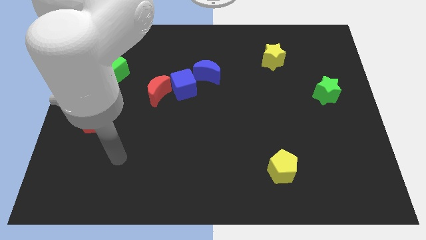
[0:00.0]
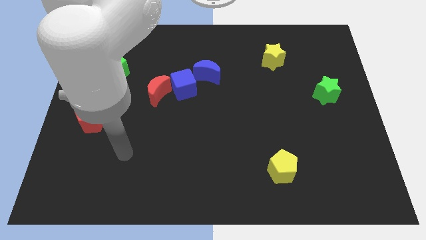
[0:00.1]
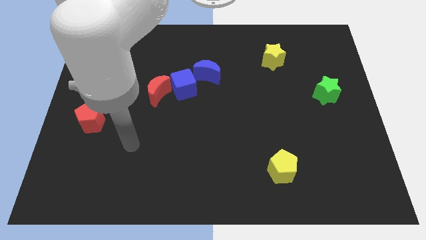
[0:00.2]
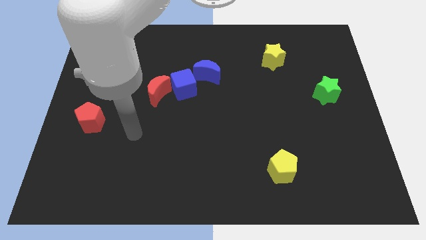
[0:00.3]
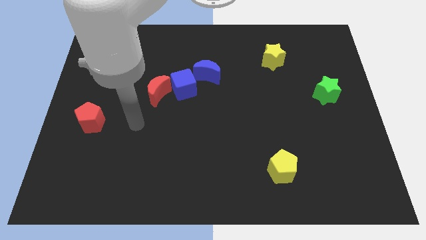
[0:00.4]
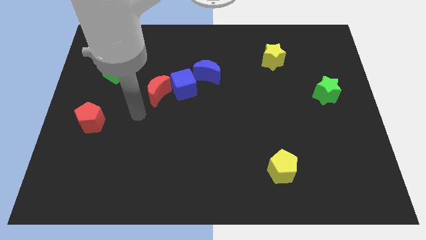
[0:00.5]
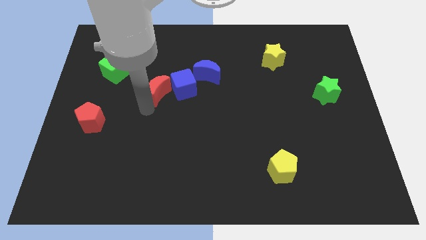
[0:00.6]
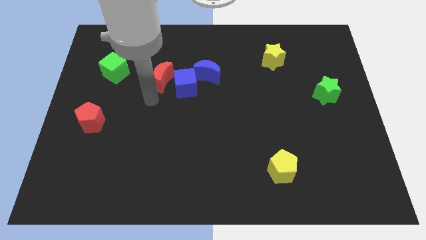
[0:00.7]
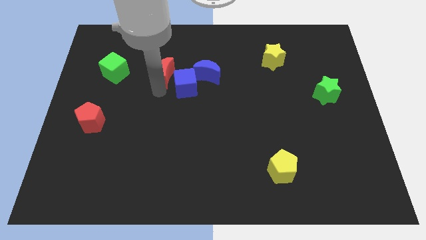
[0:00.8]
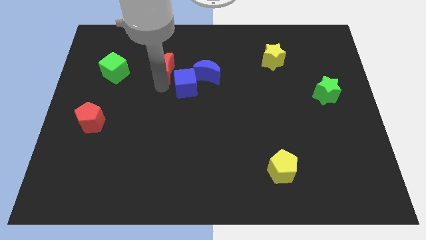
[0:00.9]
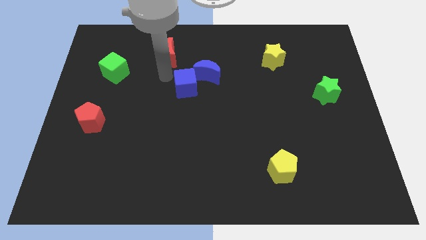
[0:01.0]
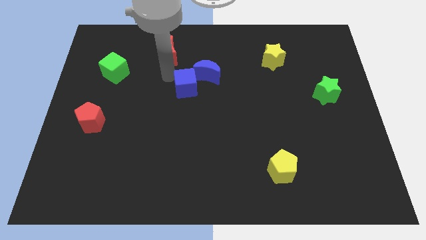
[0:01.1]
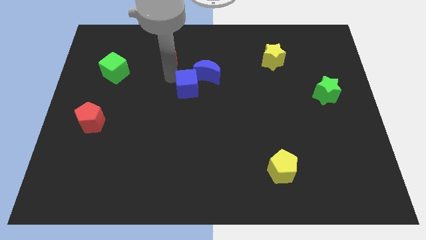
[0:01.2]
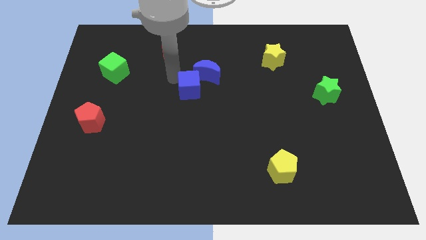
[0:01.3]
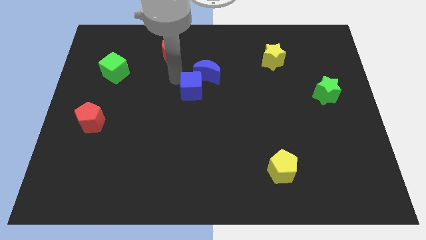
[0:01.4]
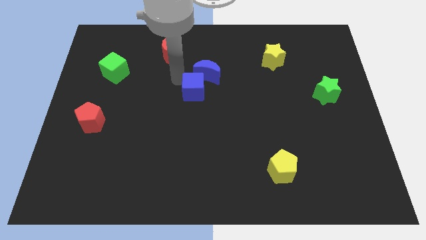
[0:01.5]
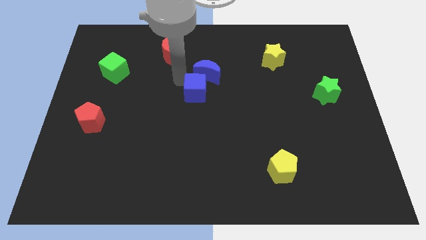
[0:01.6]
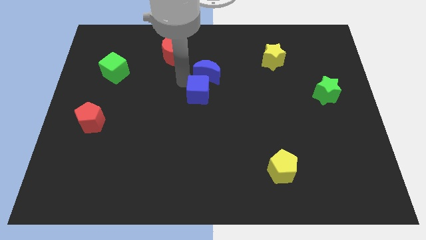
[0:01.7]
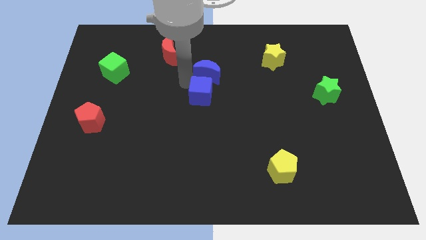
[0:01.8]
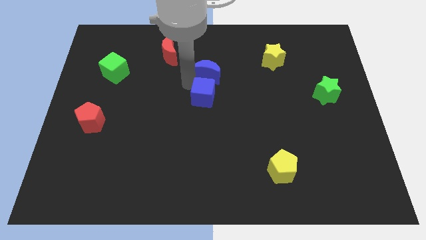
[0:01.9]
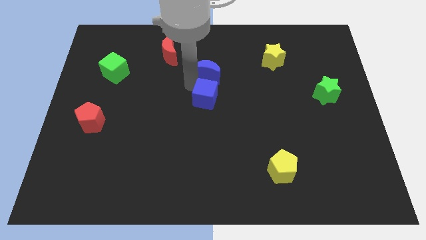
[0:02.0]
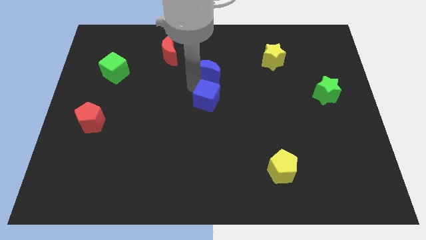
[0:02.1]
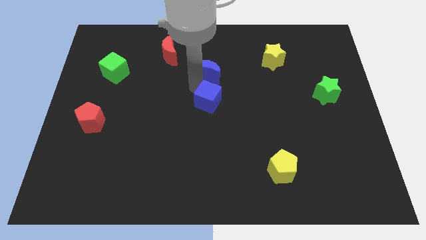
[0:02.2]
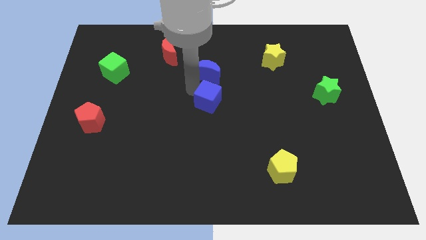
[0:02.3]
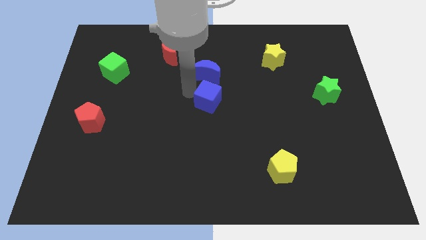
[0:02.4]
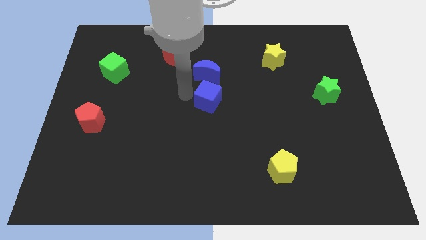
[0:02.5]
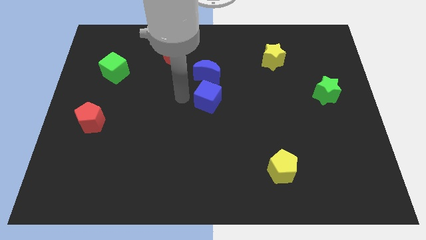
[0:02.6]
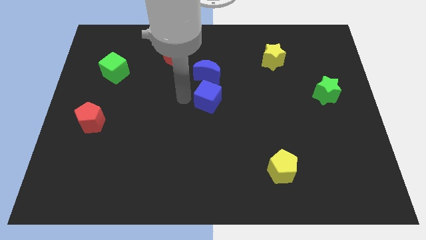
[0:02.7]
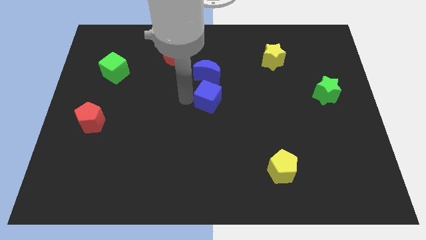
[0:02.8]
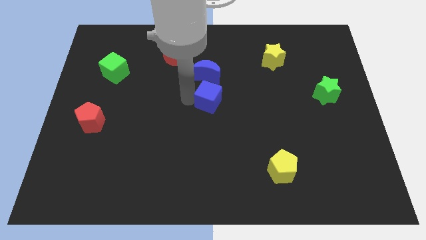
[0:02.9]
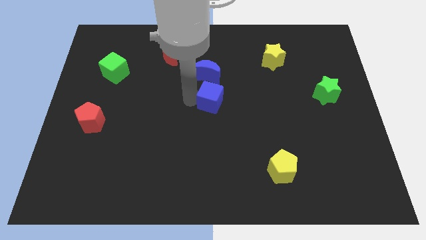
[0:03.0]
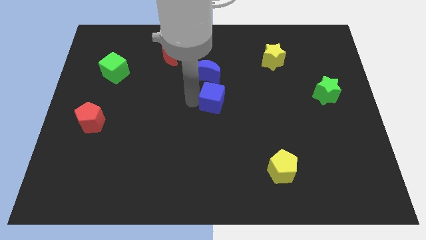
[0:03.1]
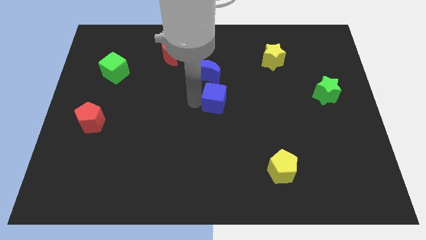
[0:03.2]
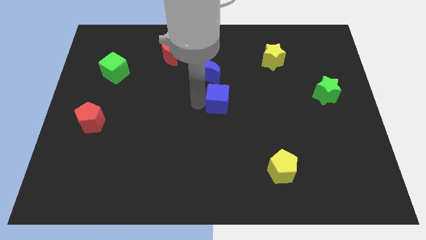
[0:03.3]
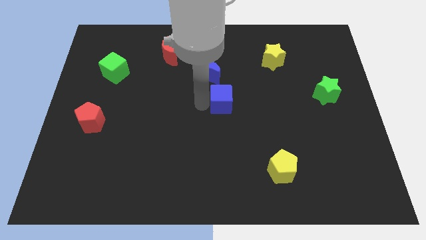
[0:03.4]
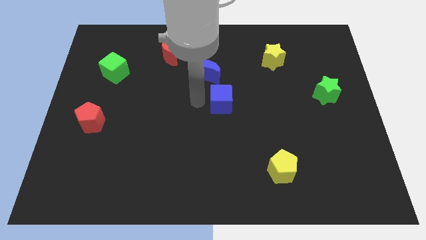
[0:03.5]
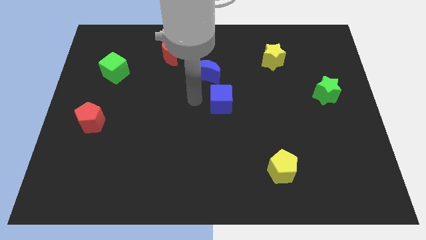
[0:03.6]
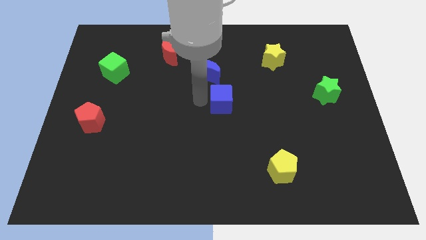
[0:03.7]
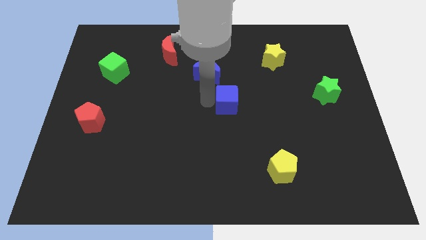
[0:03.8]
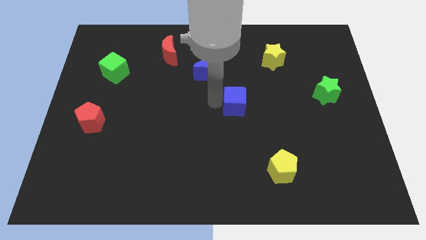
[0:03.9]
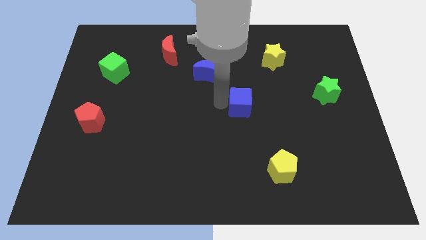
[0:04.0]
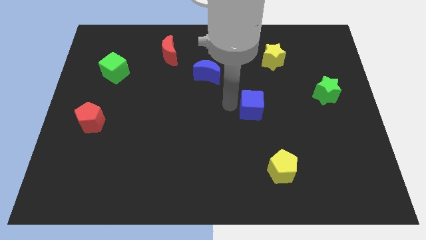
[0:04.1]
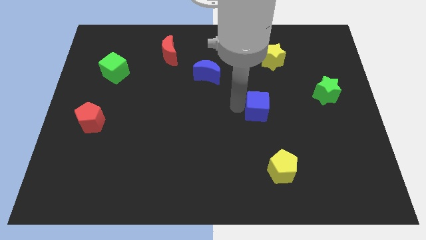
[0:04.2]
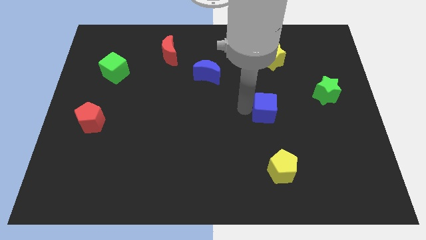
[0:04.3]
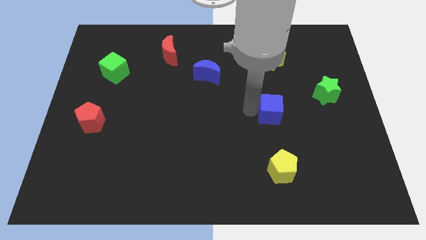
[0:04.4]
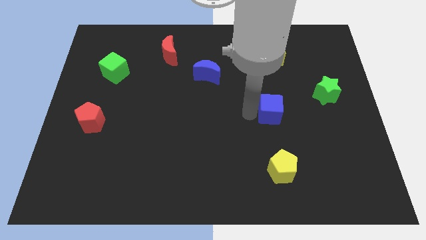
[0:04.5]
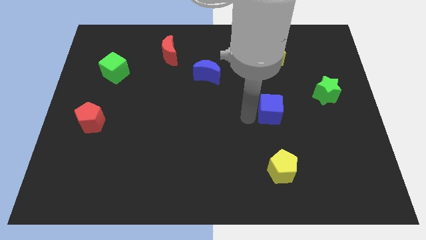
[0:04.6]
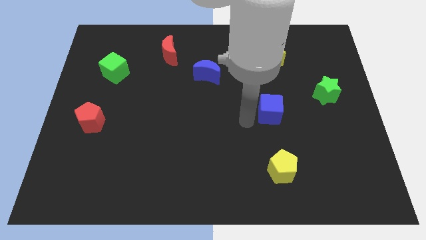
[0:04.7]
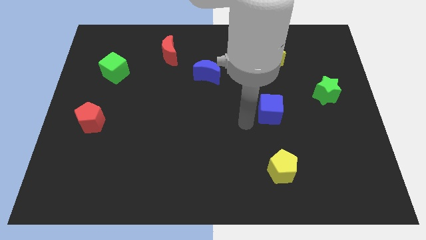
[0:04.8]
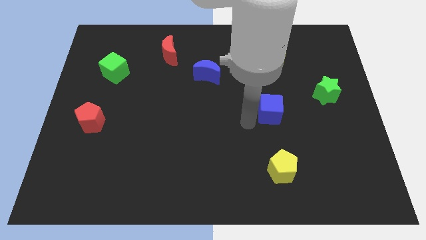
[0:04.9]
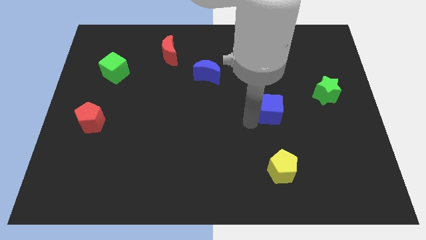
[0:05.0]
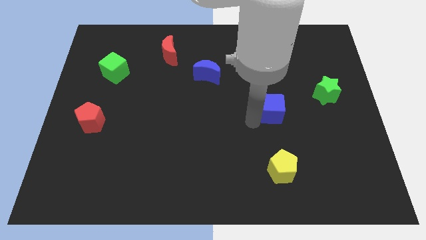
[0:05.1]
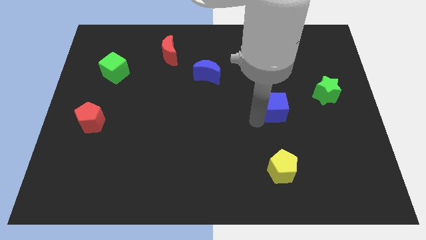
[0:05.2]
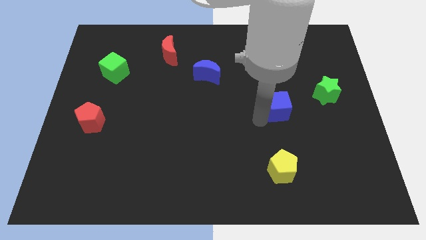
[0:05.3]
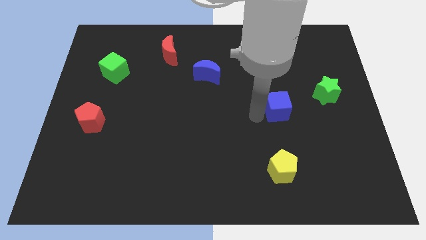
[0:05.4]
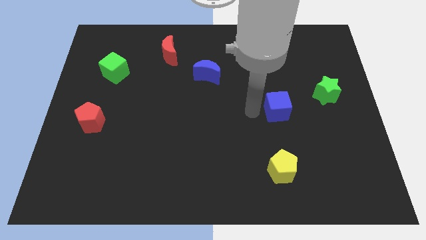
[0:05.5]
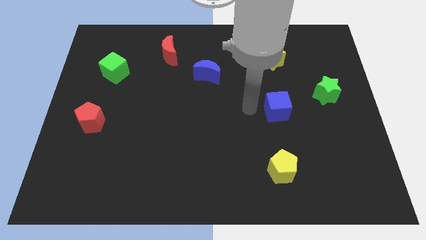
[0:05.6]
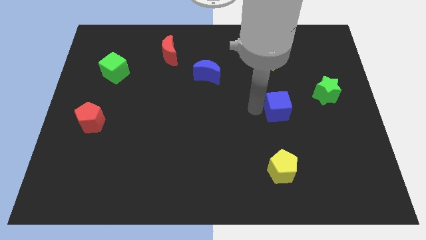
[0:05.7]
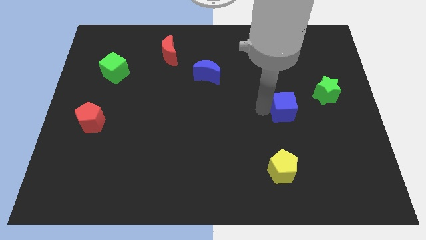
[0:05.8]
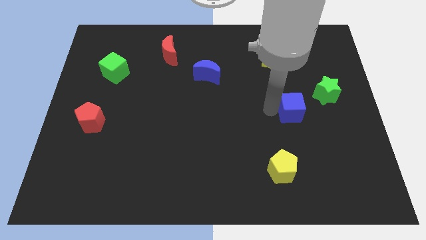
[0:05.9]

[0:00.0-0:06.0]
move the blue cube diagonally down and to the left of the green star

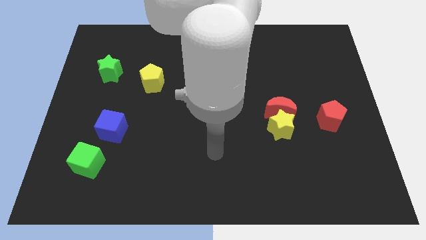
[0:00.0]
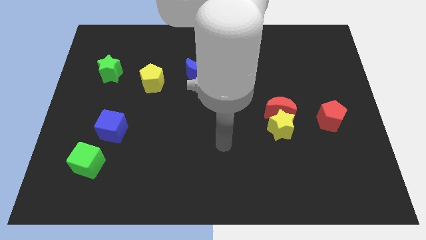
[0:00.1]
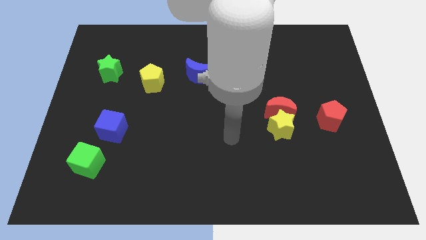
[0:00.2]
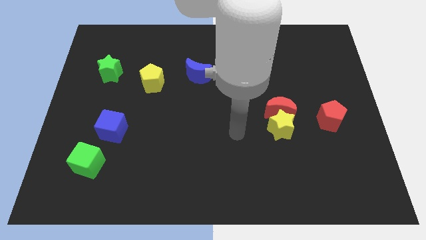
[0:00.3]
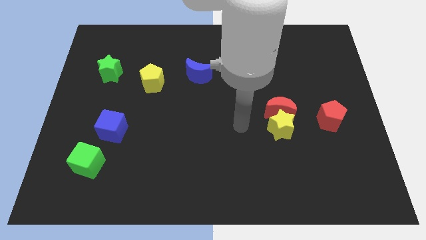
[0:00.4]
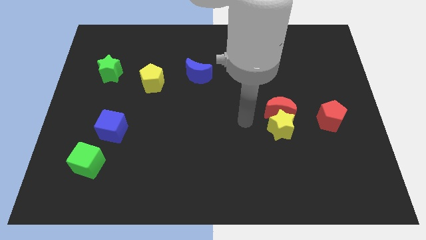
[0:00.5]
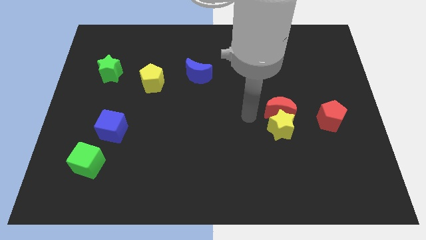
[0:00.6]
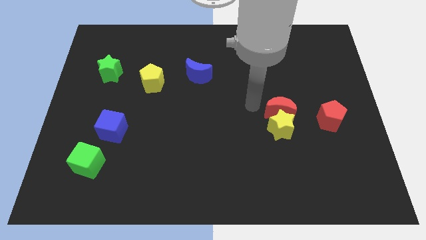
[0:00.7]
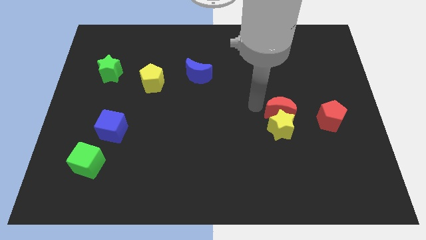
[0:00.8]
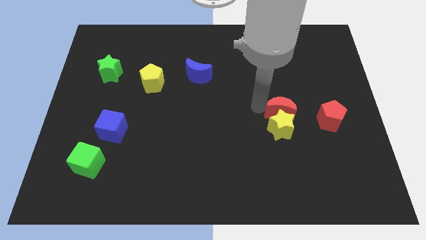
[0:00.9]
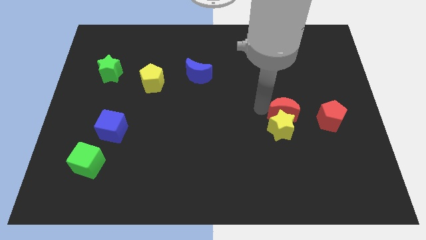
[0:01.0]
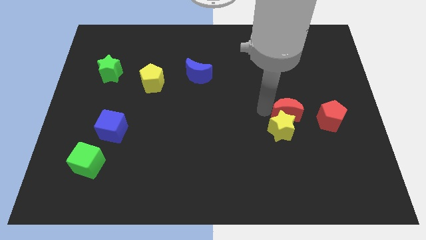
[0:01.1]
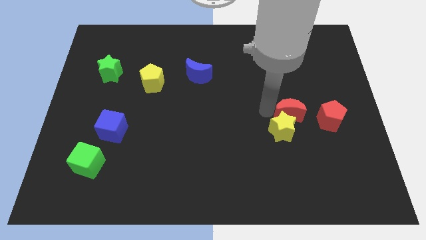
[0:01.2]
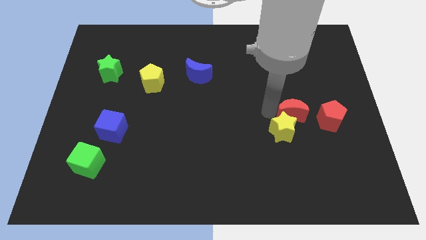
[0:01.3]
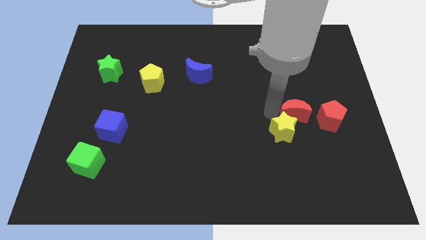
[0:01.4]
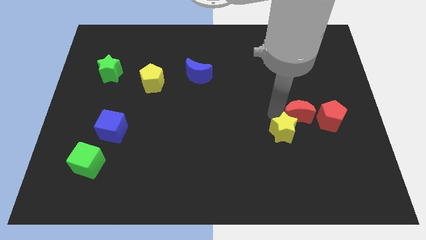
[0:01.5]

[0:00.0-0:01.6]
move the red moon right of the yellow star
